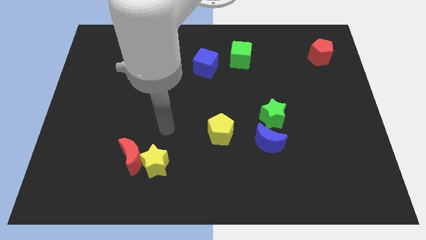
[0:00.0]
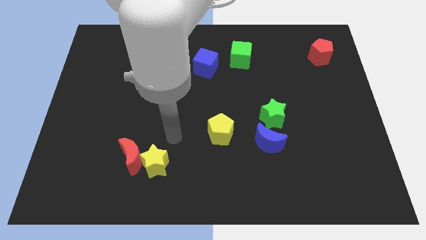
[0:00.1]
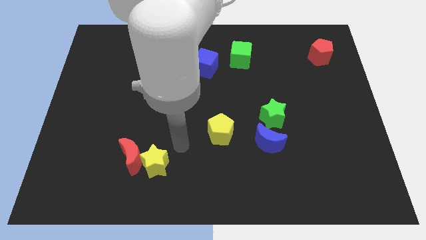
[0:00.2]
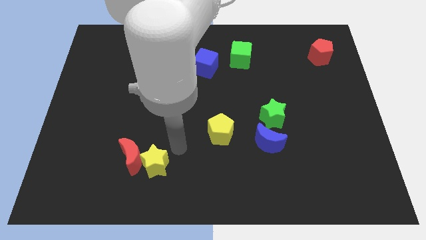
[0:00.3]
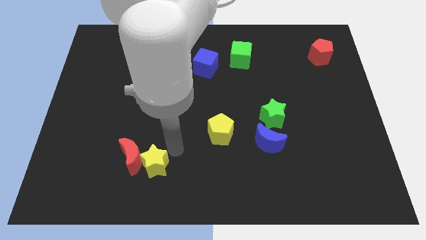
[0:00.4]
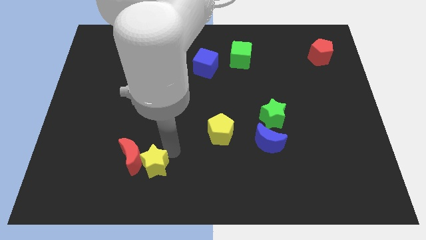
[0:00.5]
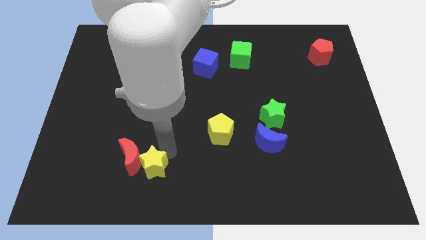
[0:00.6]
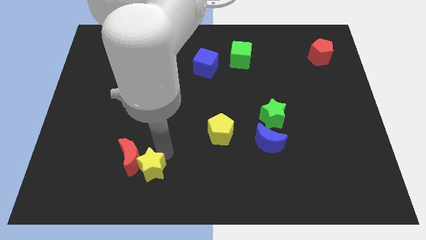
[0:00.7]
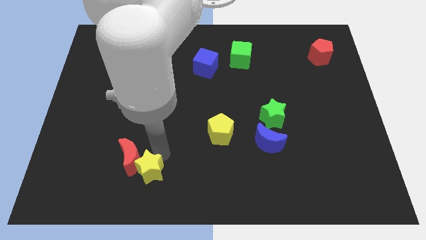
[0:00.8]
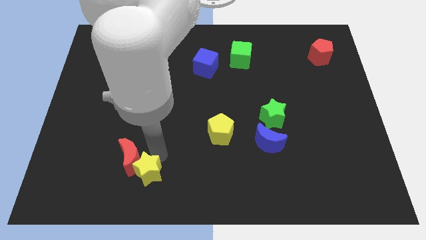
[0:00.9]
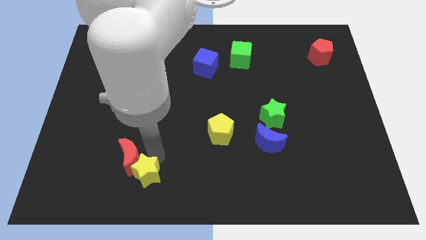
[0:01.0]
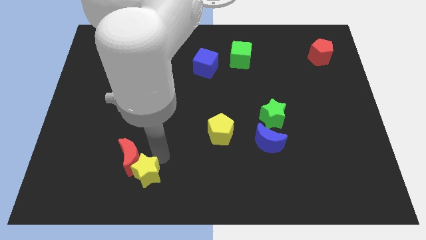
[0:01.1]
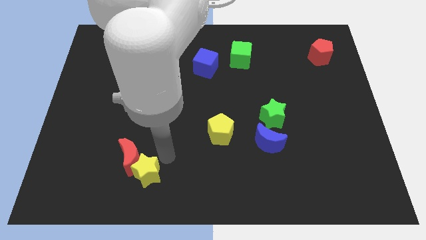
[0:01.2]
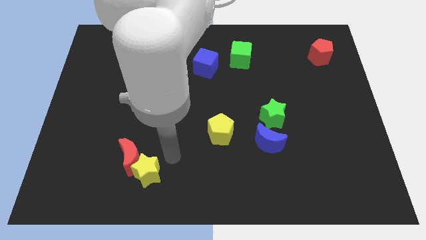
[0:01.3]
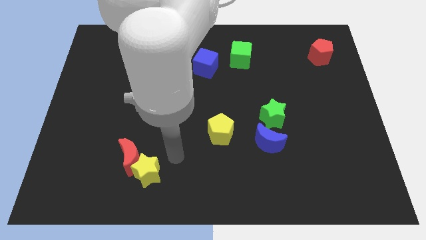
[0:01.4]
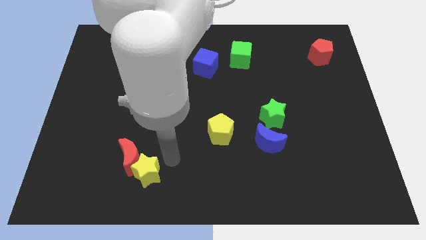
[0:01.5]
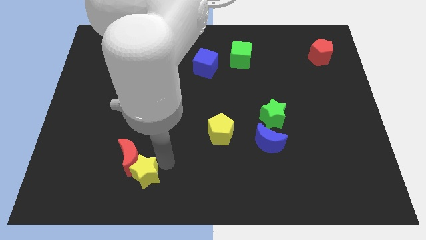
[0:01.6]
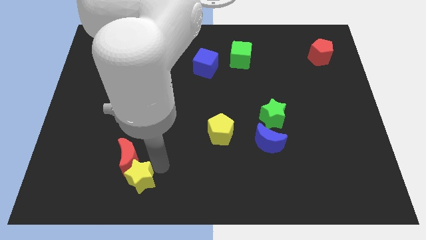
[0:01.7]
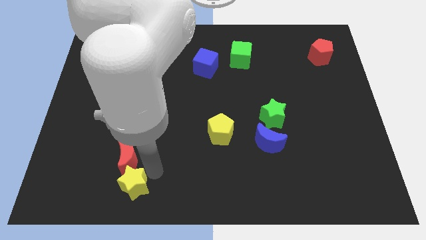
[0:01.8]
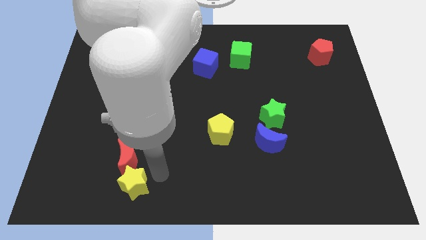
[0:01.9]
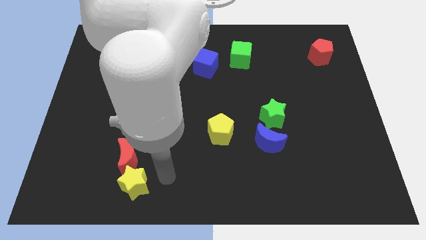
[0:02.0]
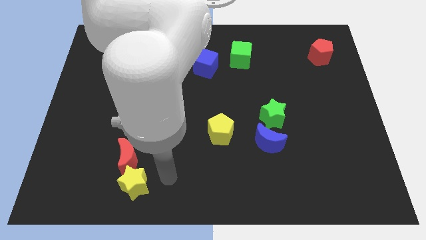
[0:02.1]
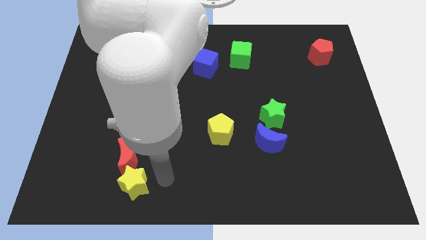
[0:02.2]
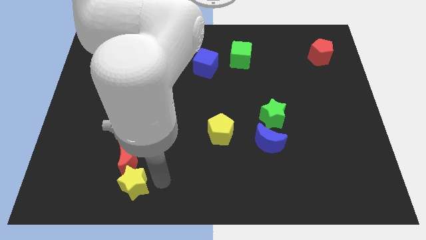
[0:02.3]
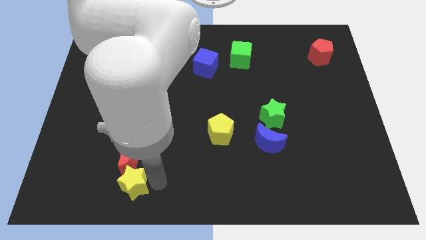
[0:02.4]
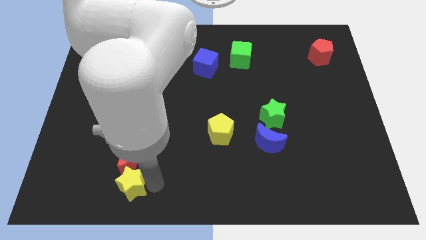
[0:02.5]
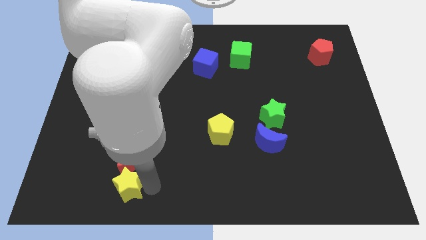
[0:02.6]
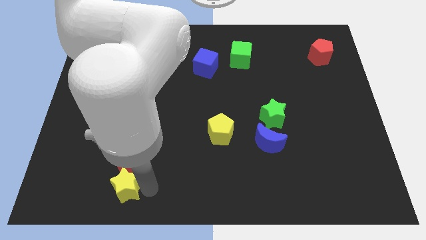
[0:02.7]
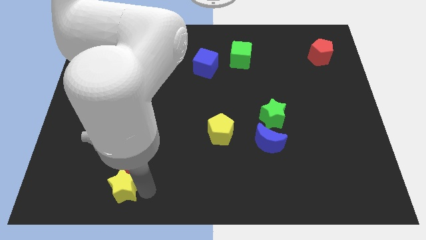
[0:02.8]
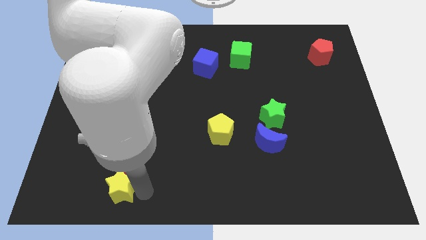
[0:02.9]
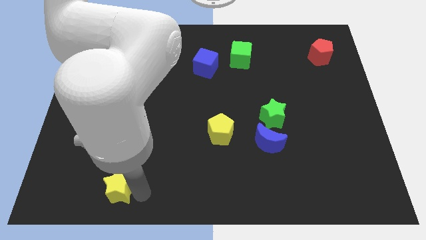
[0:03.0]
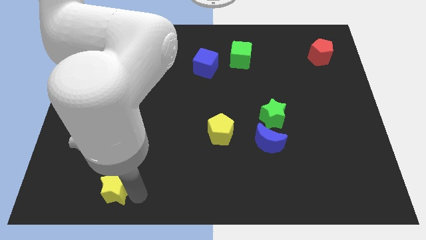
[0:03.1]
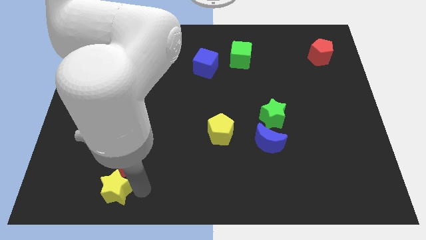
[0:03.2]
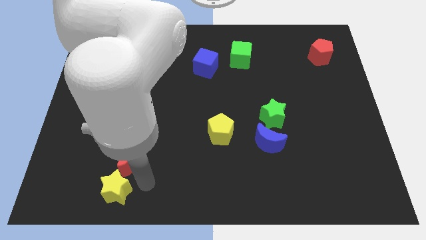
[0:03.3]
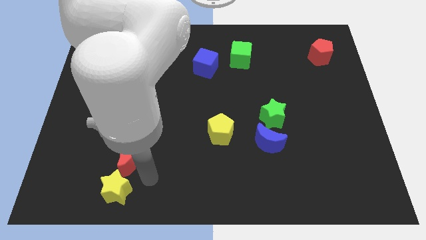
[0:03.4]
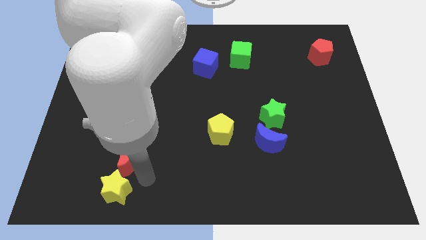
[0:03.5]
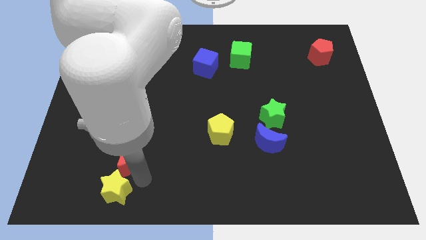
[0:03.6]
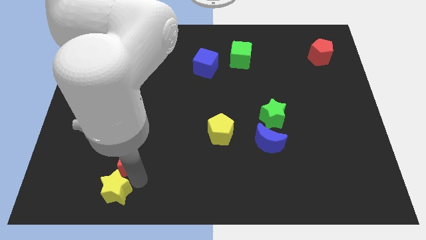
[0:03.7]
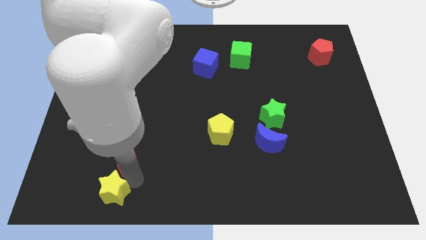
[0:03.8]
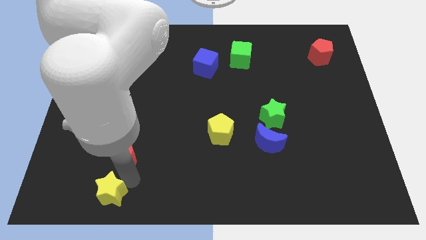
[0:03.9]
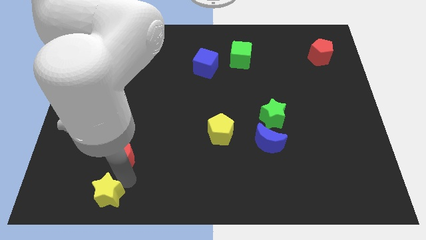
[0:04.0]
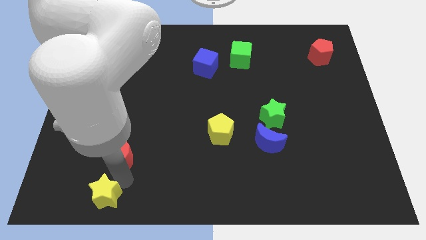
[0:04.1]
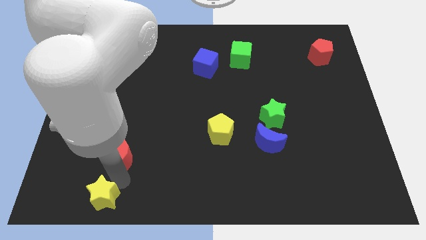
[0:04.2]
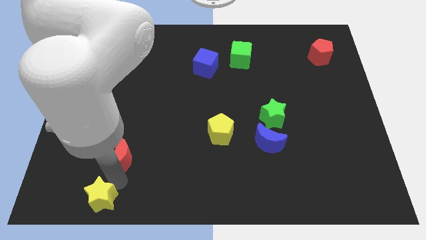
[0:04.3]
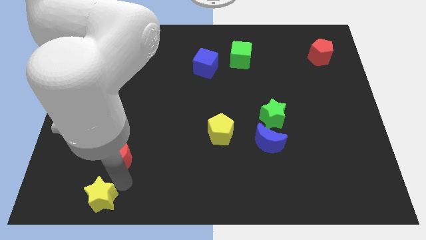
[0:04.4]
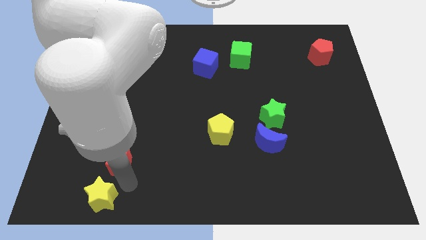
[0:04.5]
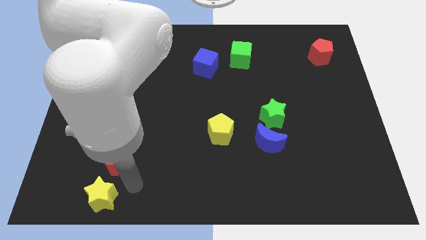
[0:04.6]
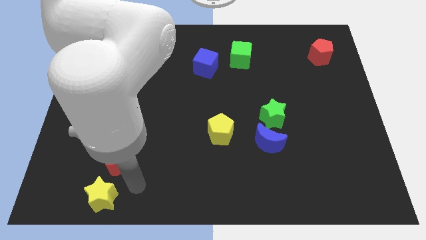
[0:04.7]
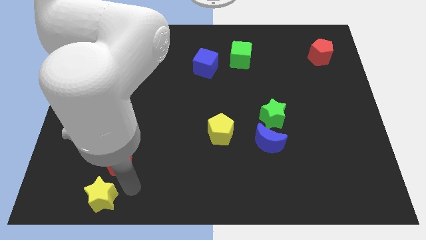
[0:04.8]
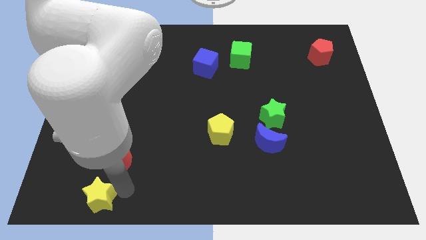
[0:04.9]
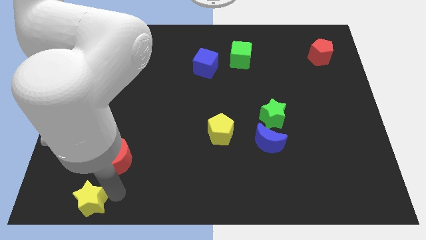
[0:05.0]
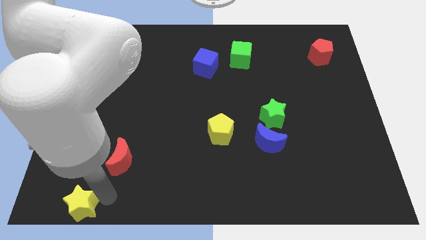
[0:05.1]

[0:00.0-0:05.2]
move the yellow star to the lower left corner

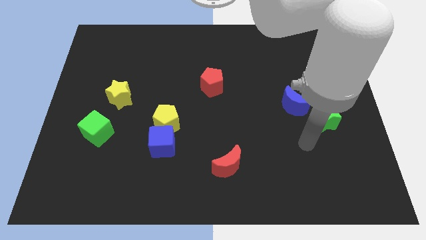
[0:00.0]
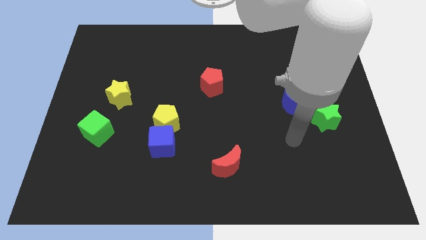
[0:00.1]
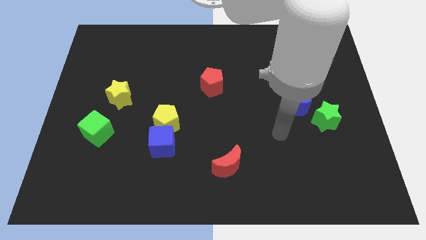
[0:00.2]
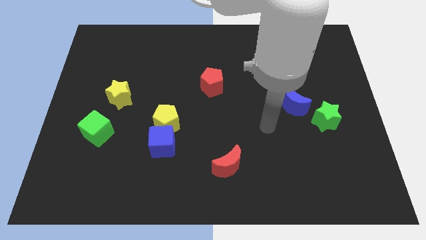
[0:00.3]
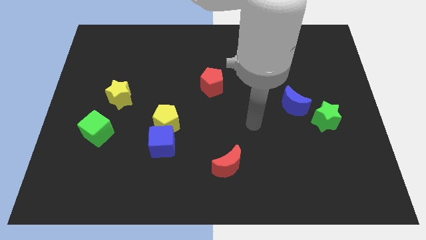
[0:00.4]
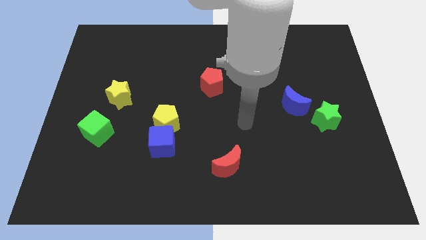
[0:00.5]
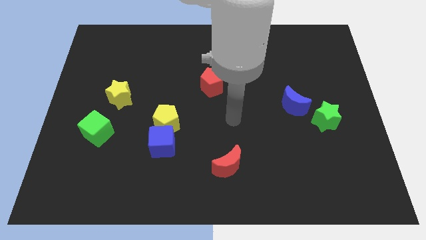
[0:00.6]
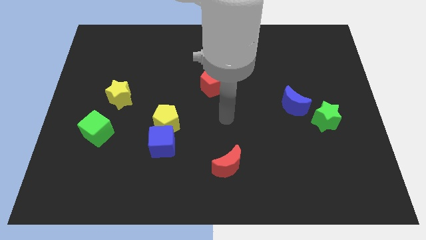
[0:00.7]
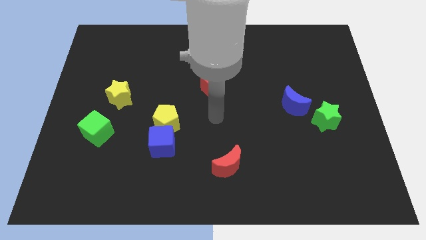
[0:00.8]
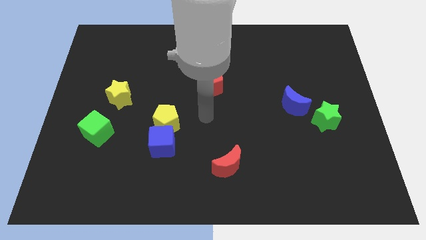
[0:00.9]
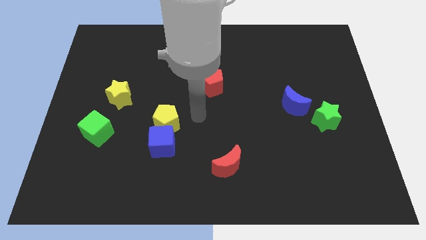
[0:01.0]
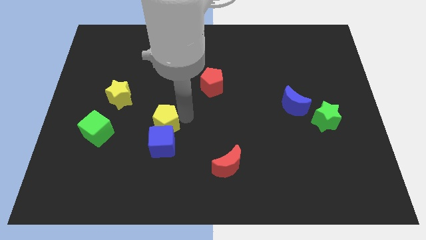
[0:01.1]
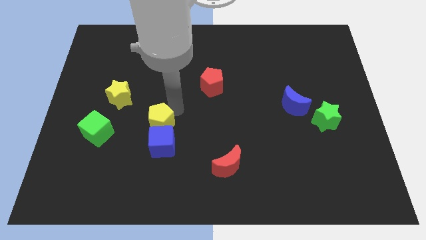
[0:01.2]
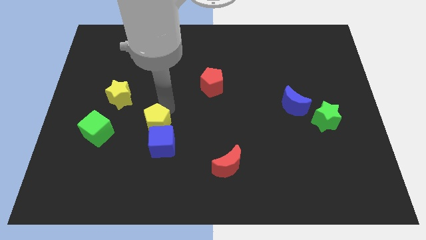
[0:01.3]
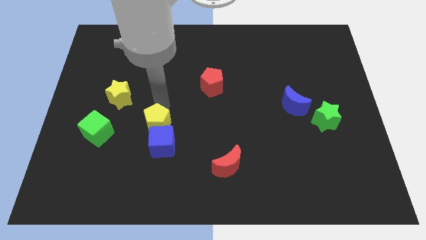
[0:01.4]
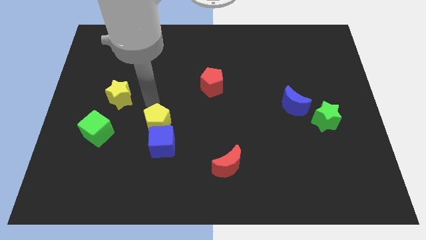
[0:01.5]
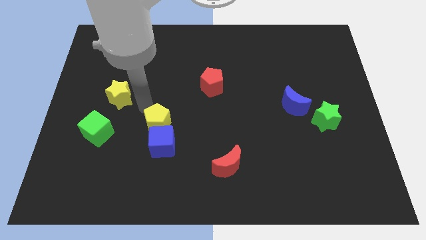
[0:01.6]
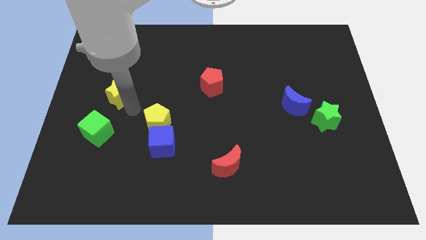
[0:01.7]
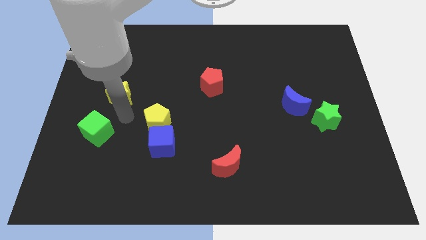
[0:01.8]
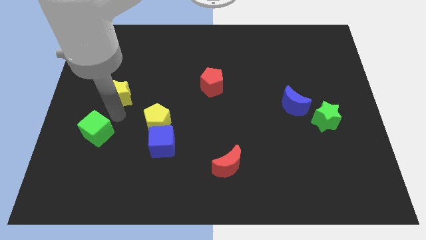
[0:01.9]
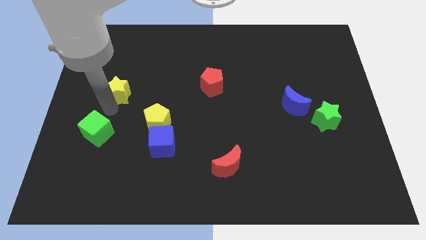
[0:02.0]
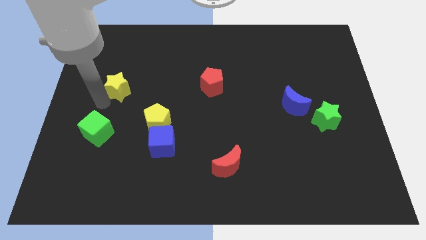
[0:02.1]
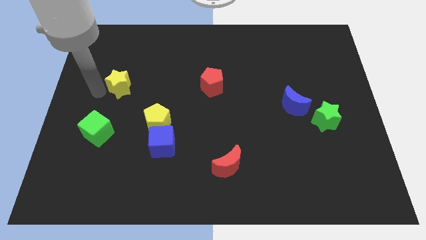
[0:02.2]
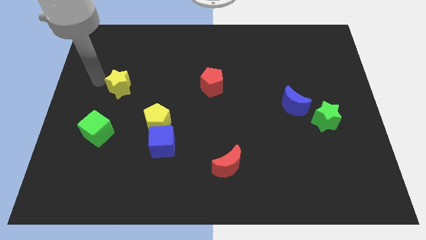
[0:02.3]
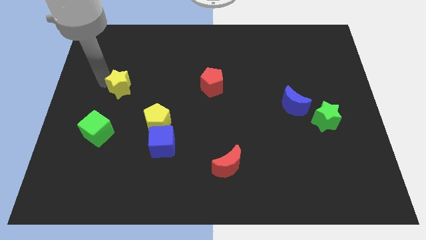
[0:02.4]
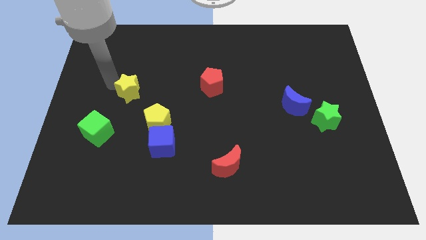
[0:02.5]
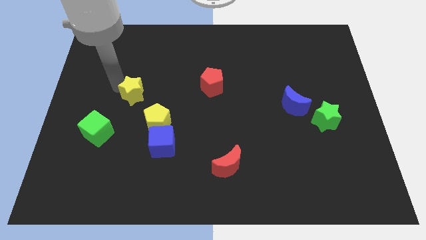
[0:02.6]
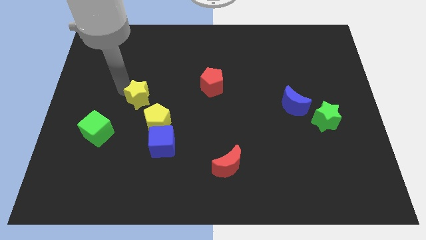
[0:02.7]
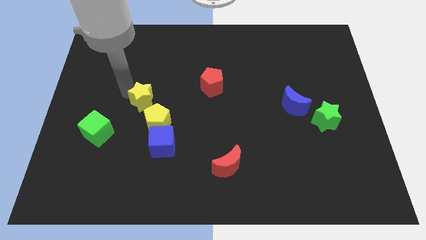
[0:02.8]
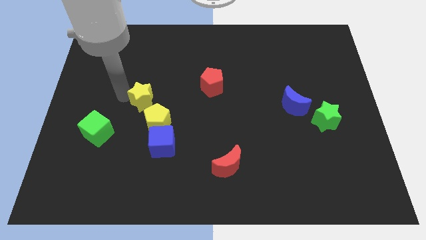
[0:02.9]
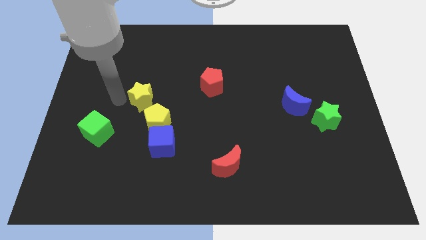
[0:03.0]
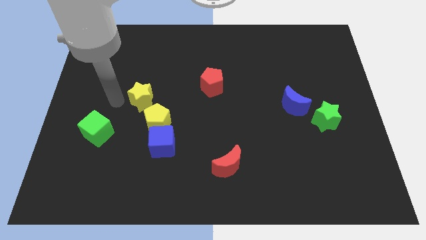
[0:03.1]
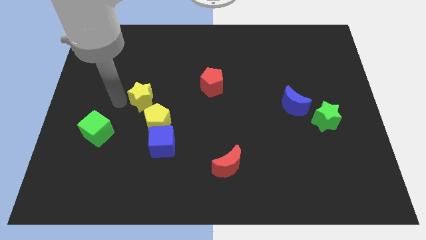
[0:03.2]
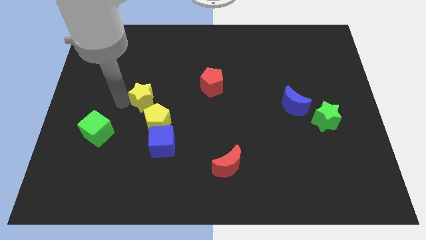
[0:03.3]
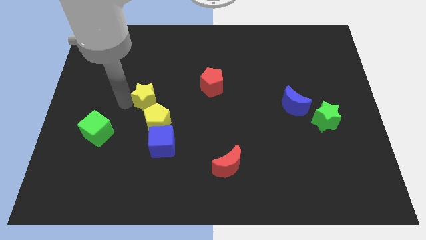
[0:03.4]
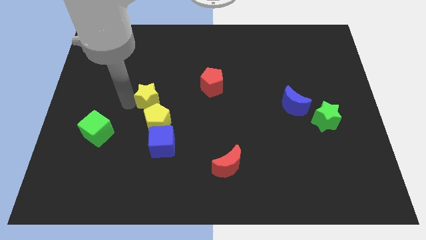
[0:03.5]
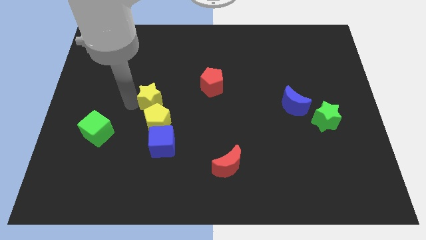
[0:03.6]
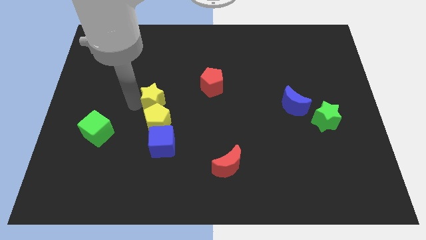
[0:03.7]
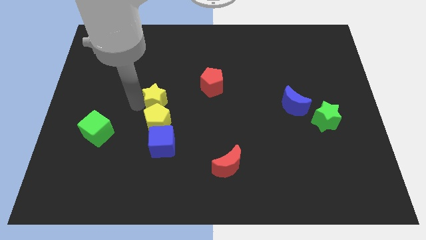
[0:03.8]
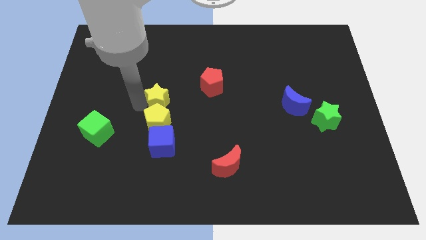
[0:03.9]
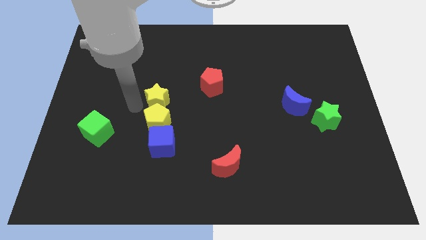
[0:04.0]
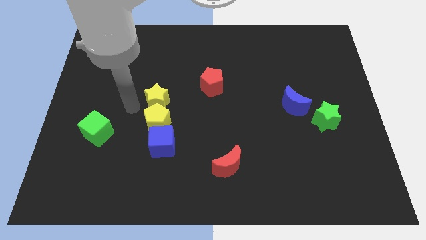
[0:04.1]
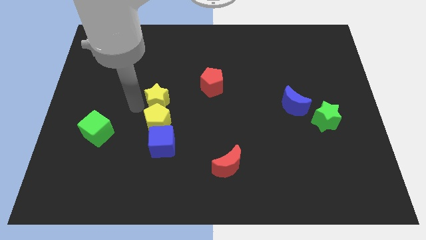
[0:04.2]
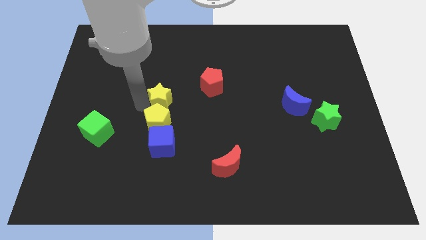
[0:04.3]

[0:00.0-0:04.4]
slide the yellow star to the center of the board
